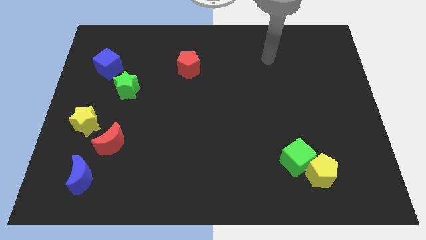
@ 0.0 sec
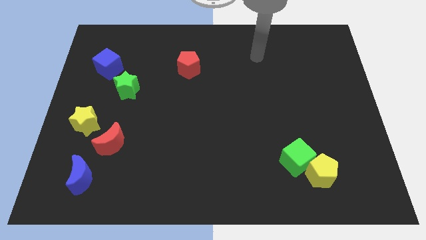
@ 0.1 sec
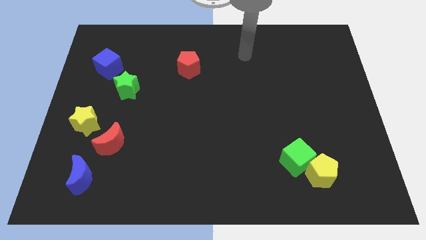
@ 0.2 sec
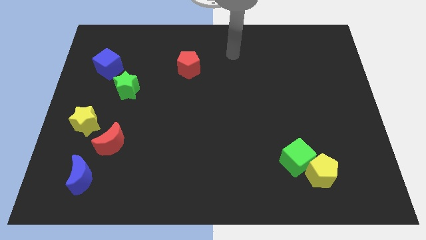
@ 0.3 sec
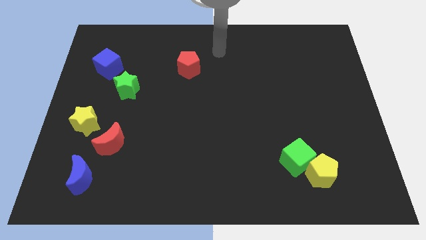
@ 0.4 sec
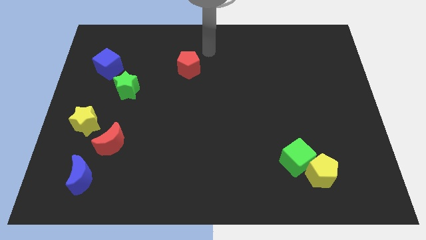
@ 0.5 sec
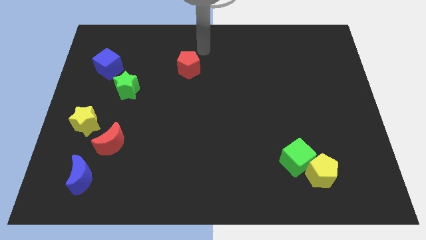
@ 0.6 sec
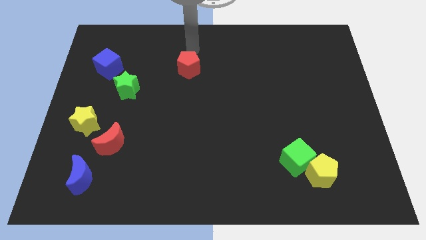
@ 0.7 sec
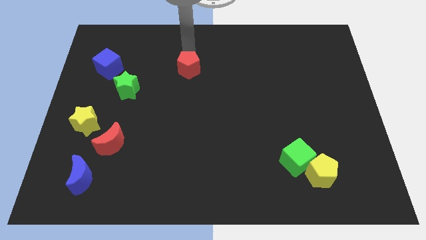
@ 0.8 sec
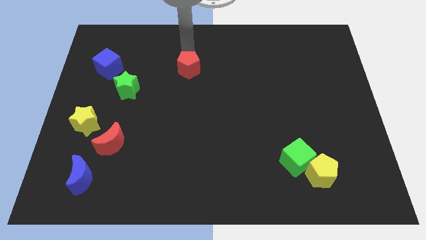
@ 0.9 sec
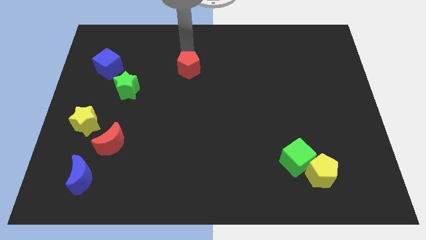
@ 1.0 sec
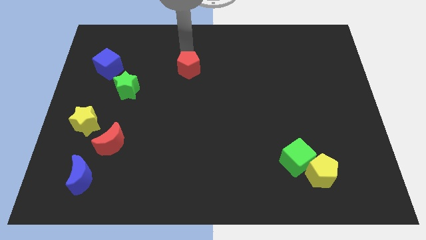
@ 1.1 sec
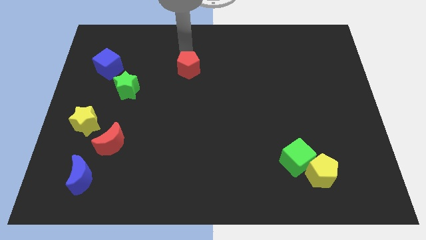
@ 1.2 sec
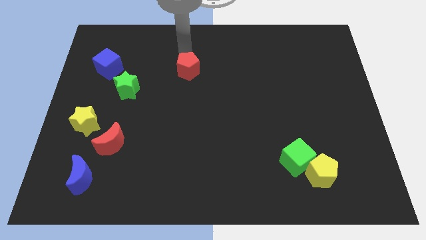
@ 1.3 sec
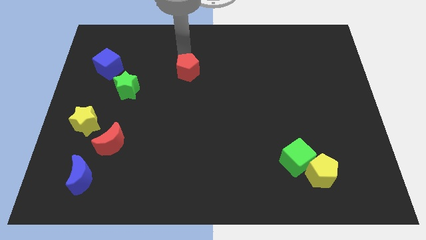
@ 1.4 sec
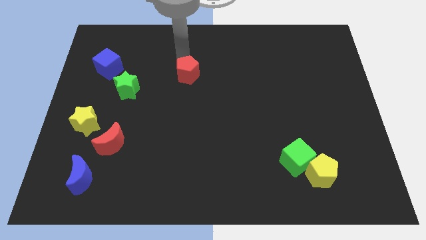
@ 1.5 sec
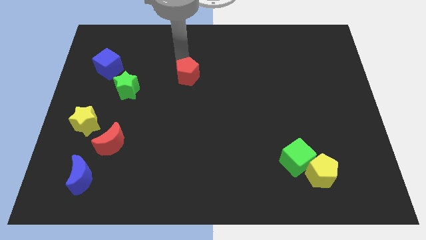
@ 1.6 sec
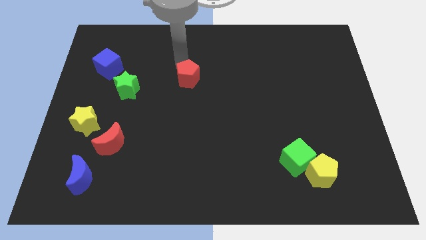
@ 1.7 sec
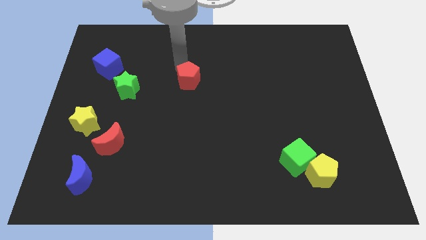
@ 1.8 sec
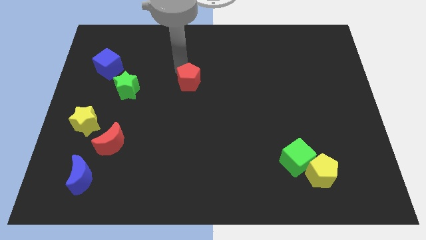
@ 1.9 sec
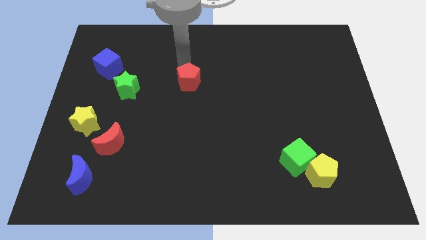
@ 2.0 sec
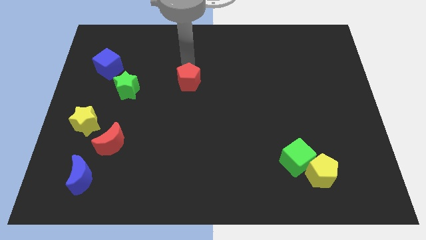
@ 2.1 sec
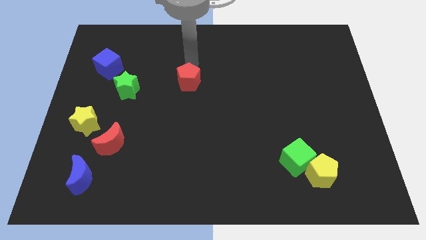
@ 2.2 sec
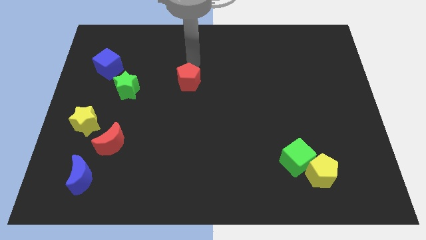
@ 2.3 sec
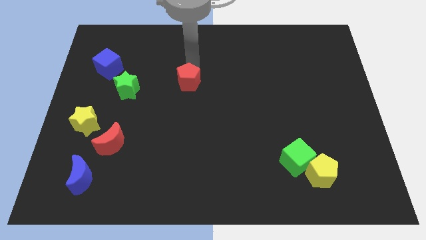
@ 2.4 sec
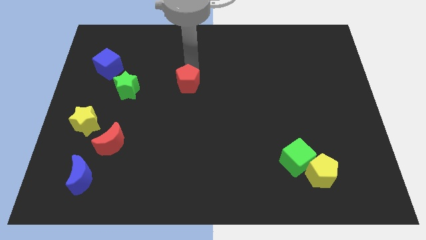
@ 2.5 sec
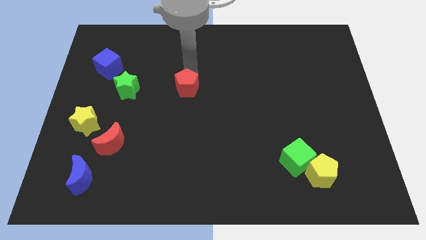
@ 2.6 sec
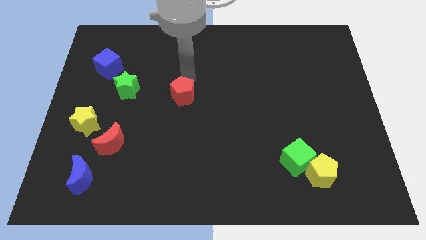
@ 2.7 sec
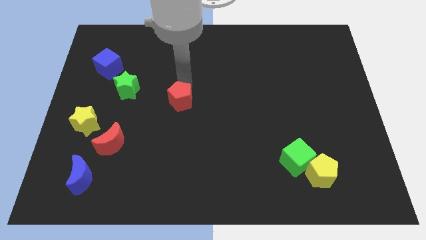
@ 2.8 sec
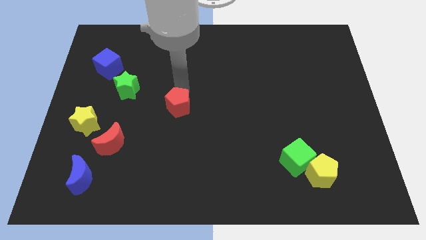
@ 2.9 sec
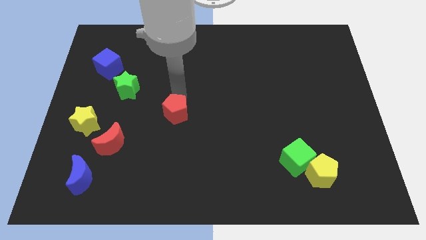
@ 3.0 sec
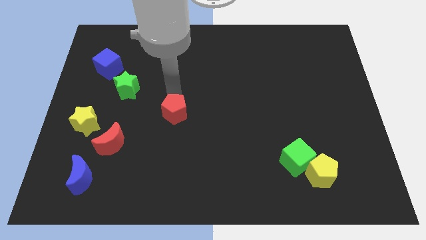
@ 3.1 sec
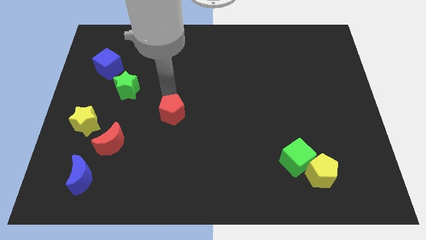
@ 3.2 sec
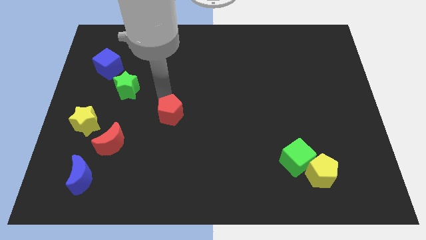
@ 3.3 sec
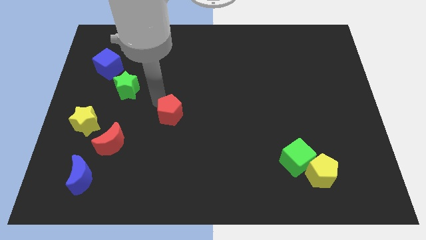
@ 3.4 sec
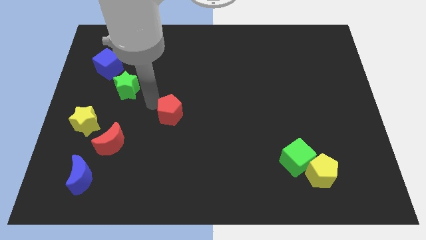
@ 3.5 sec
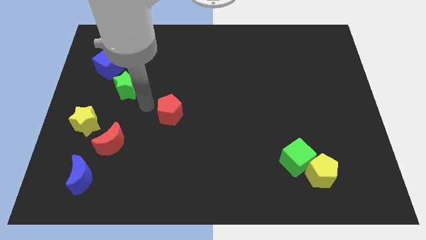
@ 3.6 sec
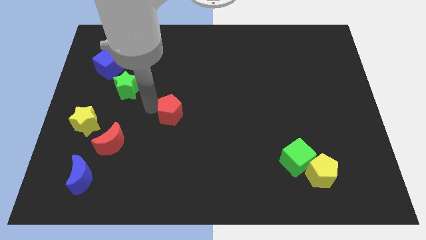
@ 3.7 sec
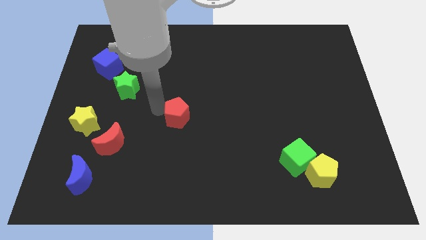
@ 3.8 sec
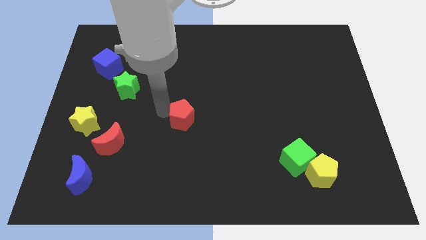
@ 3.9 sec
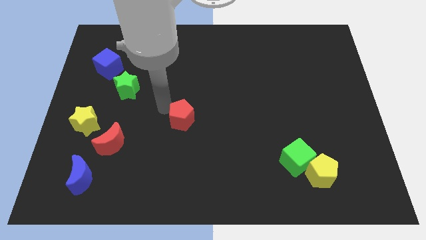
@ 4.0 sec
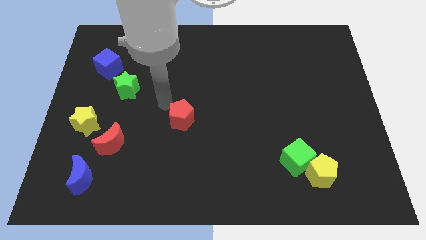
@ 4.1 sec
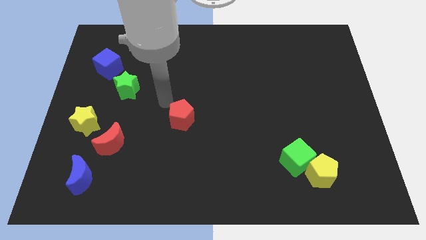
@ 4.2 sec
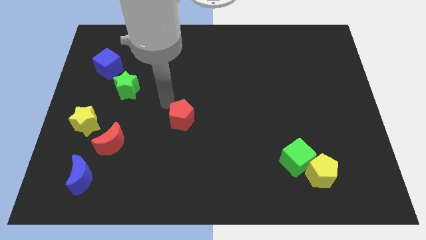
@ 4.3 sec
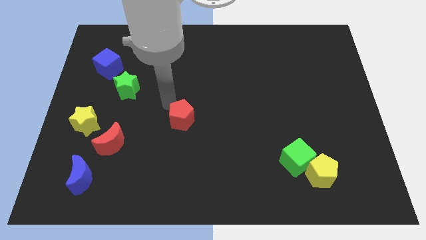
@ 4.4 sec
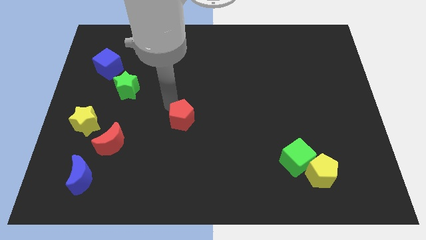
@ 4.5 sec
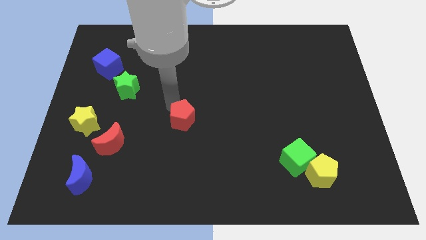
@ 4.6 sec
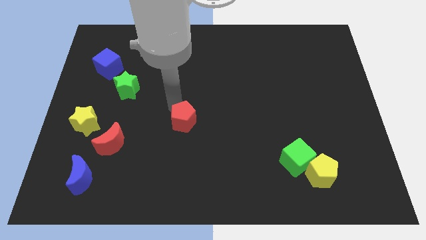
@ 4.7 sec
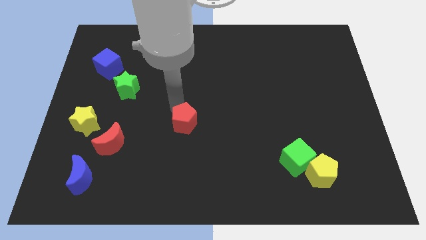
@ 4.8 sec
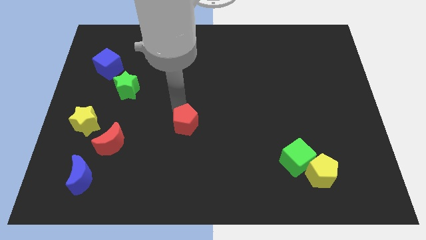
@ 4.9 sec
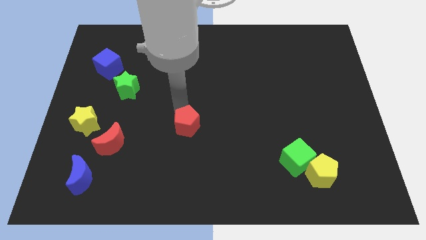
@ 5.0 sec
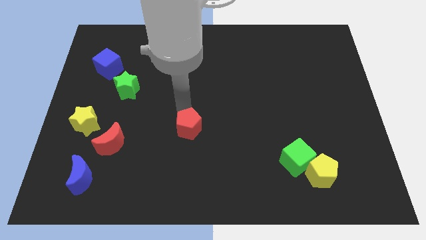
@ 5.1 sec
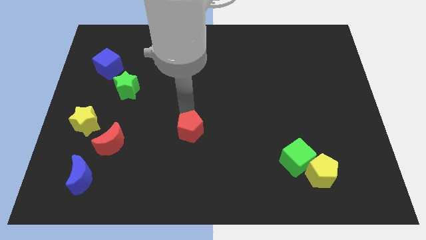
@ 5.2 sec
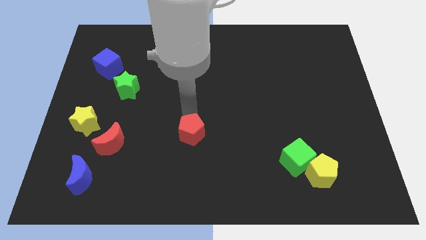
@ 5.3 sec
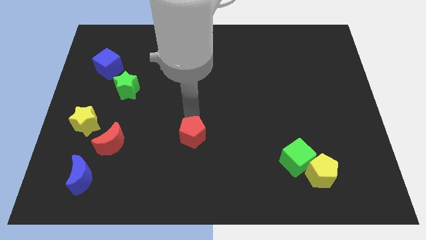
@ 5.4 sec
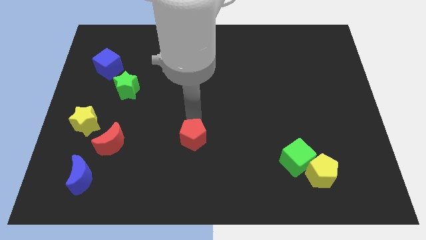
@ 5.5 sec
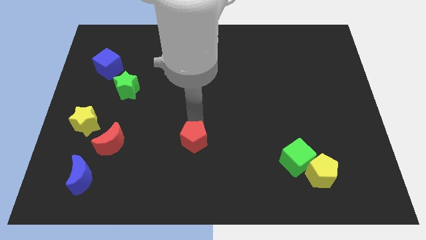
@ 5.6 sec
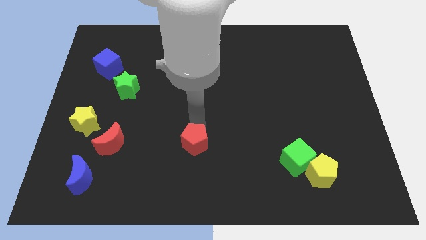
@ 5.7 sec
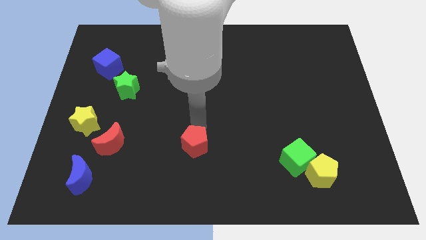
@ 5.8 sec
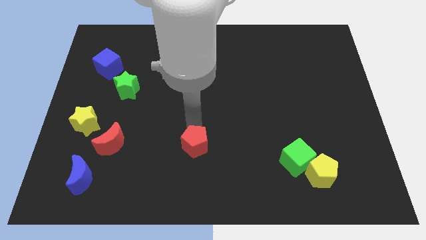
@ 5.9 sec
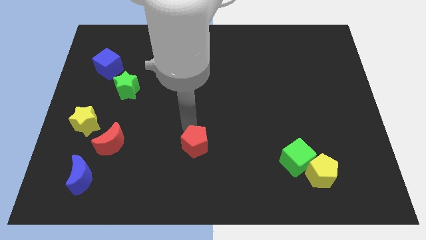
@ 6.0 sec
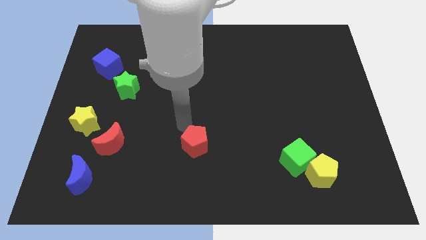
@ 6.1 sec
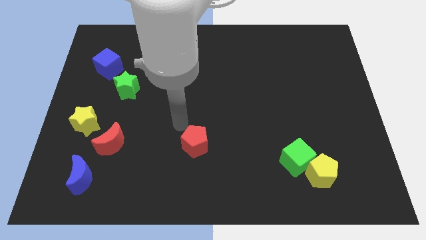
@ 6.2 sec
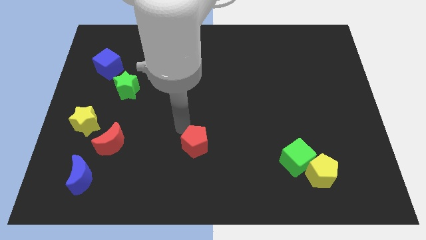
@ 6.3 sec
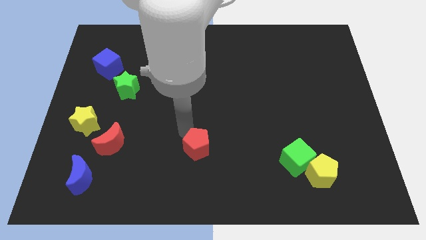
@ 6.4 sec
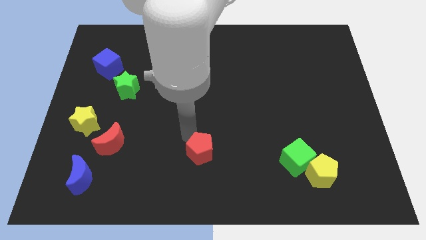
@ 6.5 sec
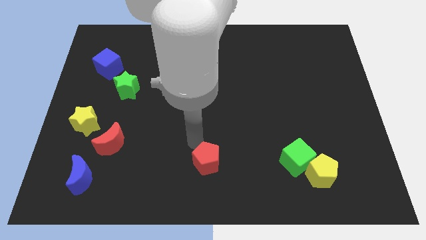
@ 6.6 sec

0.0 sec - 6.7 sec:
put the red pentagon to the bottom side
